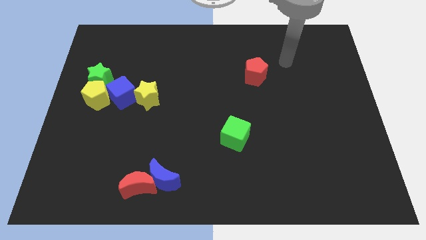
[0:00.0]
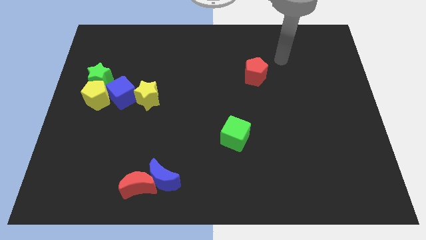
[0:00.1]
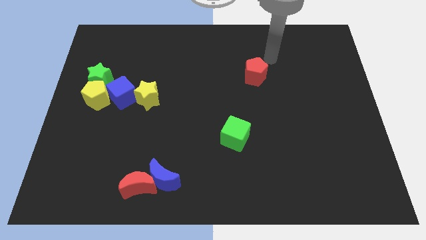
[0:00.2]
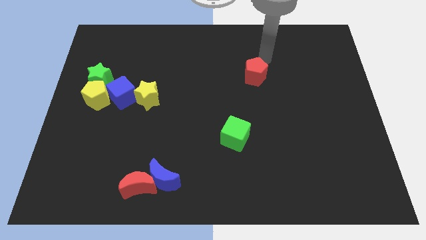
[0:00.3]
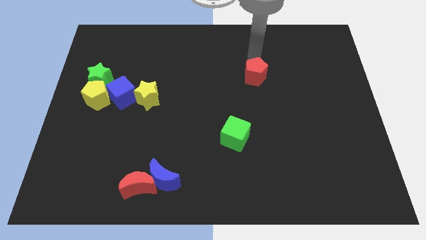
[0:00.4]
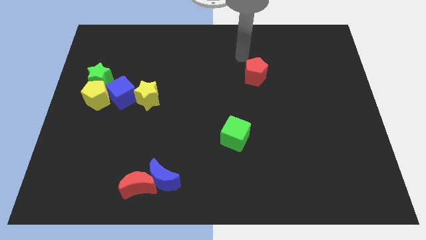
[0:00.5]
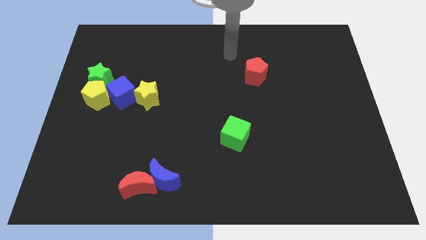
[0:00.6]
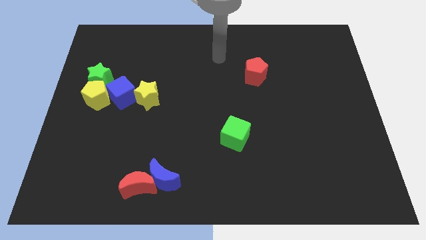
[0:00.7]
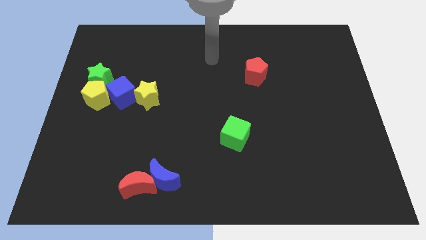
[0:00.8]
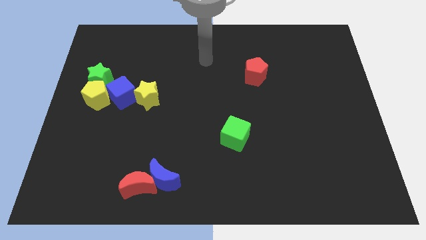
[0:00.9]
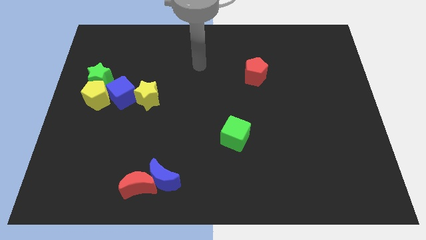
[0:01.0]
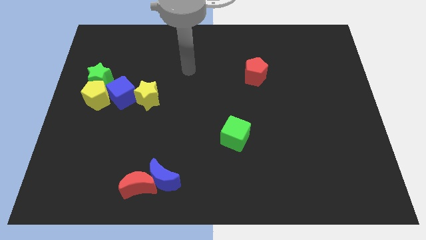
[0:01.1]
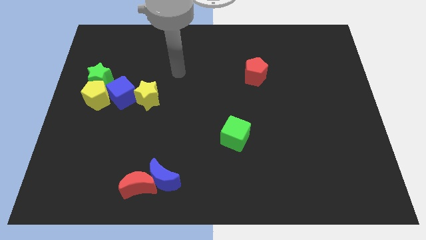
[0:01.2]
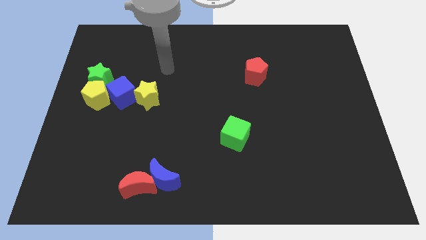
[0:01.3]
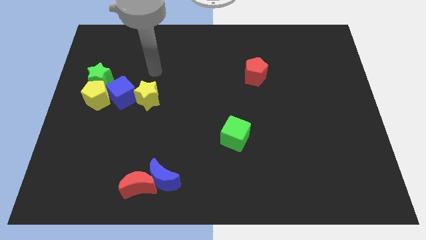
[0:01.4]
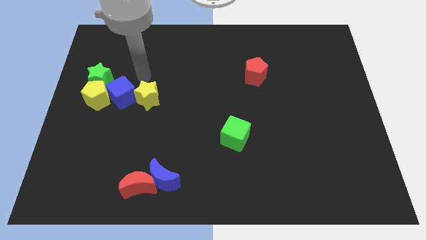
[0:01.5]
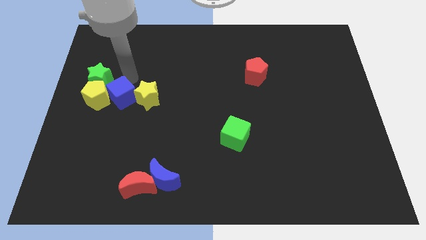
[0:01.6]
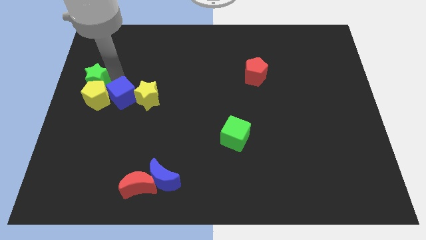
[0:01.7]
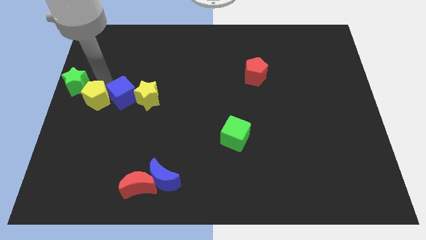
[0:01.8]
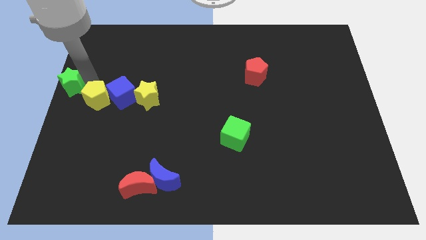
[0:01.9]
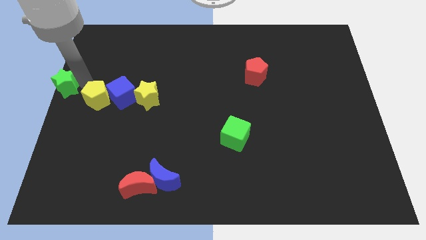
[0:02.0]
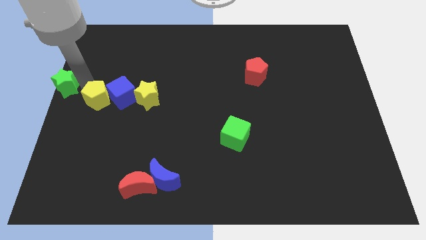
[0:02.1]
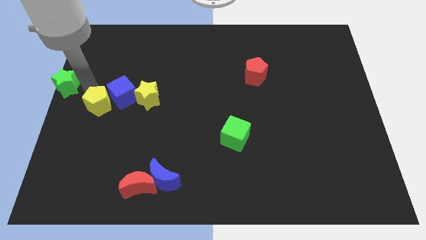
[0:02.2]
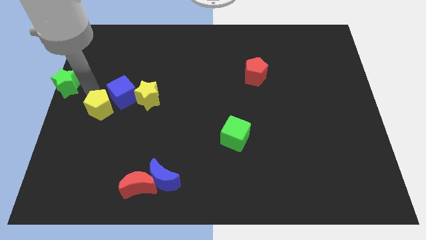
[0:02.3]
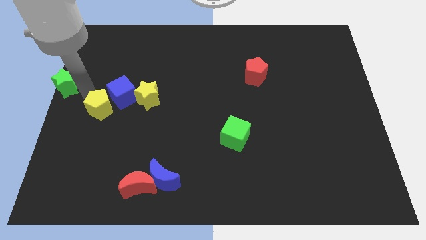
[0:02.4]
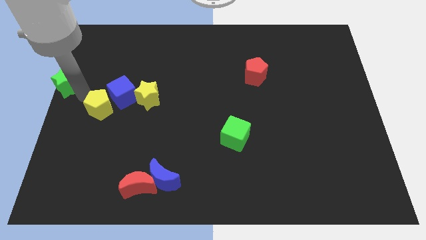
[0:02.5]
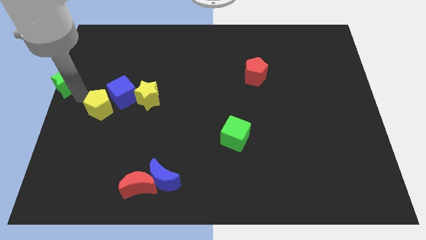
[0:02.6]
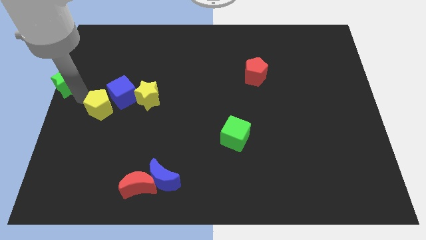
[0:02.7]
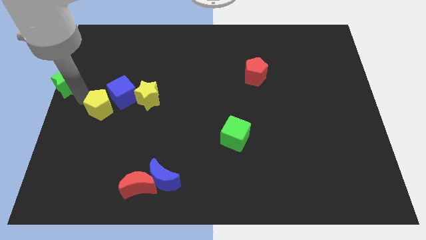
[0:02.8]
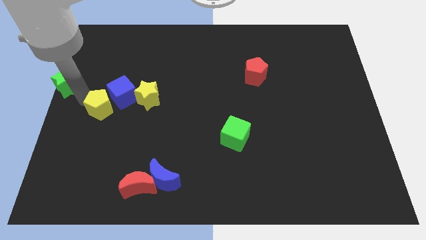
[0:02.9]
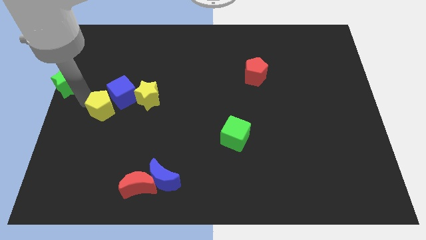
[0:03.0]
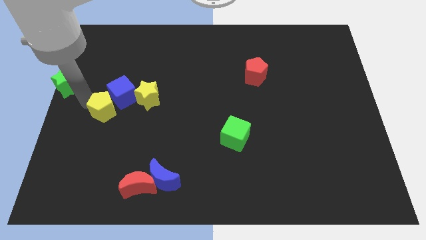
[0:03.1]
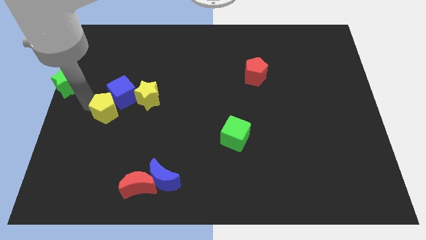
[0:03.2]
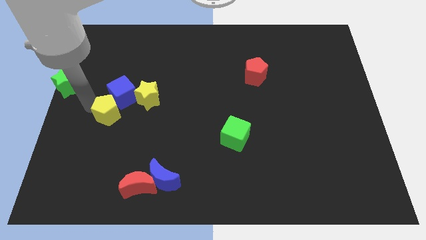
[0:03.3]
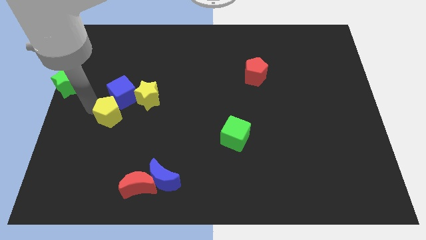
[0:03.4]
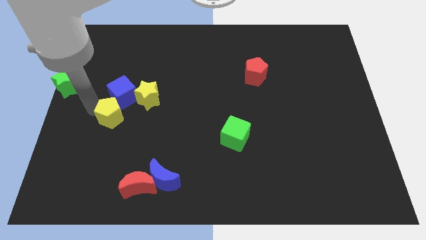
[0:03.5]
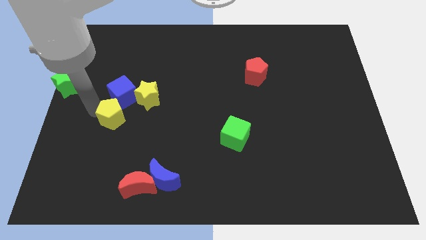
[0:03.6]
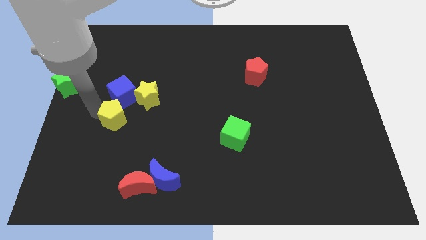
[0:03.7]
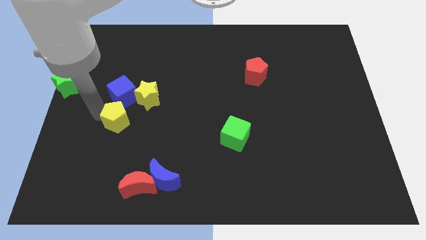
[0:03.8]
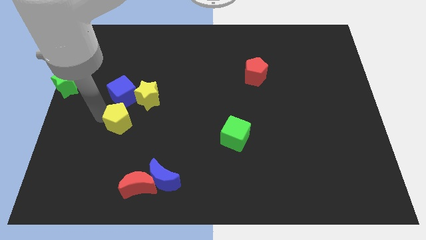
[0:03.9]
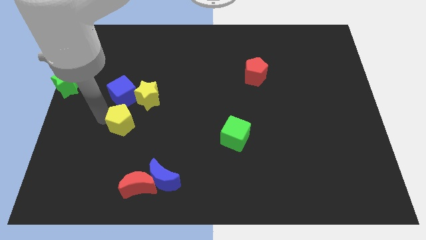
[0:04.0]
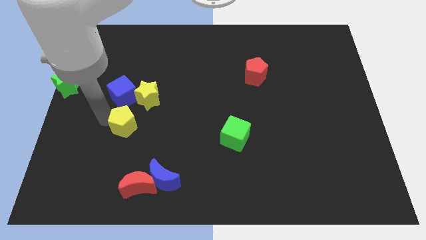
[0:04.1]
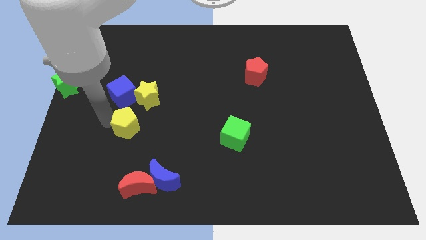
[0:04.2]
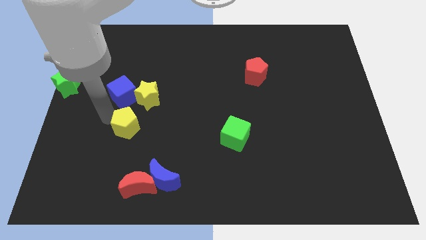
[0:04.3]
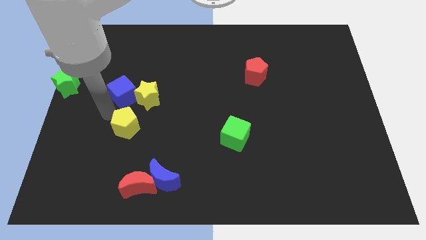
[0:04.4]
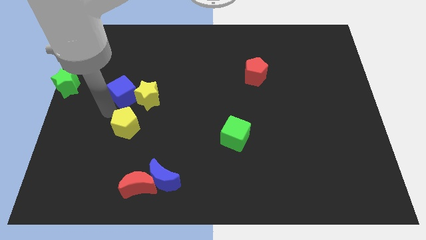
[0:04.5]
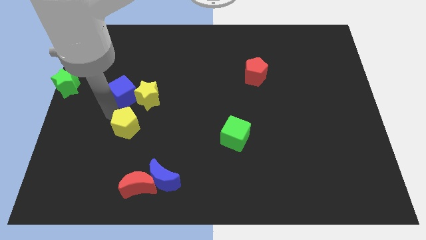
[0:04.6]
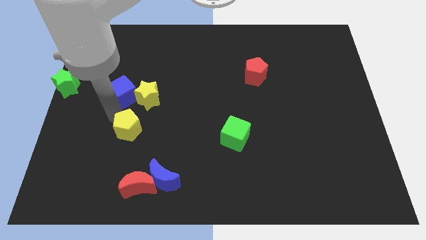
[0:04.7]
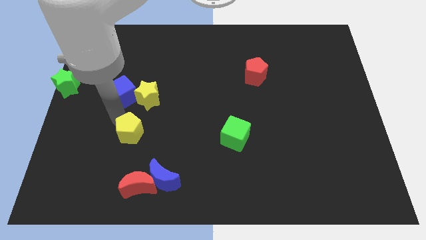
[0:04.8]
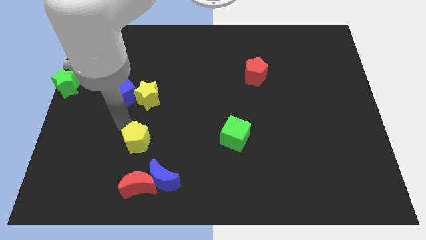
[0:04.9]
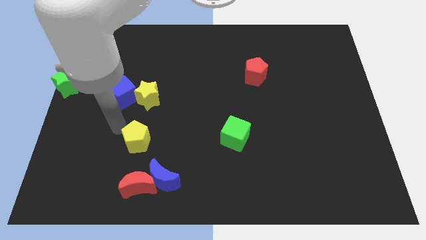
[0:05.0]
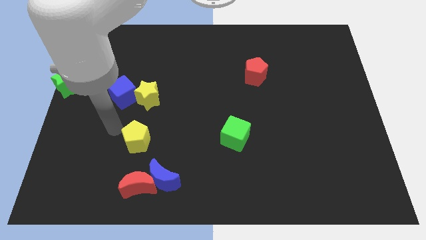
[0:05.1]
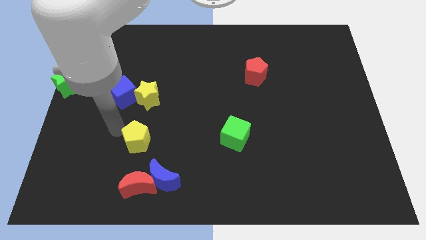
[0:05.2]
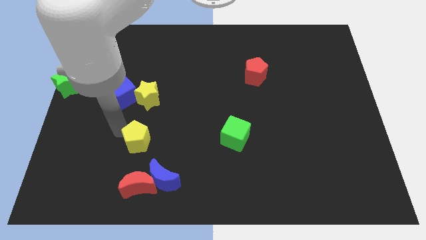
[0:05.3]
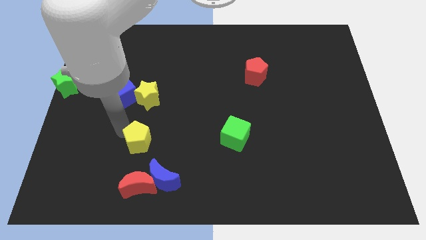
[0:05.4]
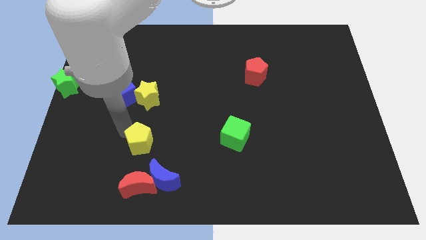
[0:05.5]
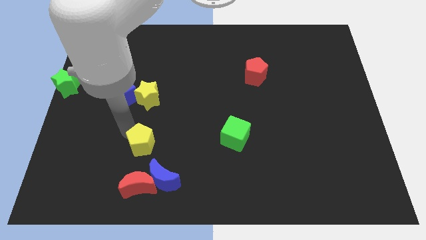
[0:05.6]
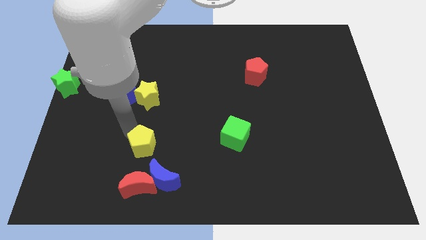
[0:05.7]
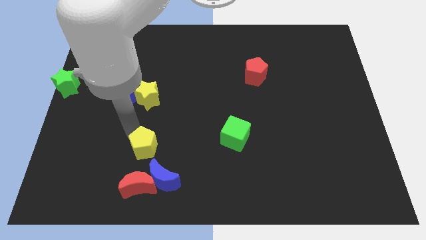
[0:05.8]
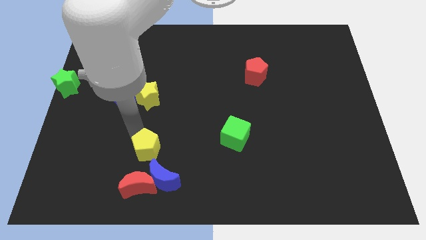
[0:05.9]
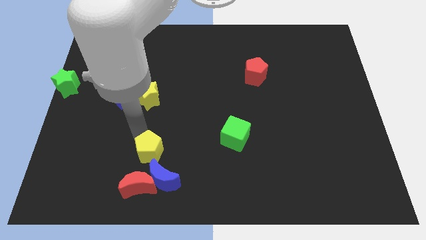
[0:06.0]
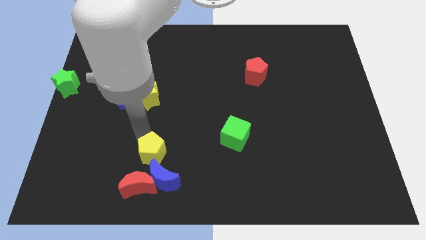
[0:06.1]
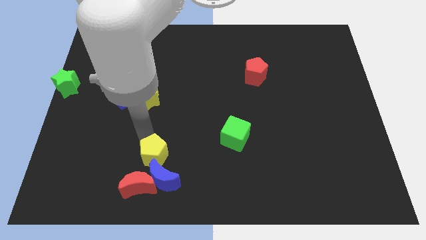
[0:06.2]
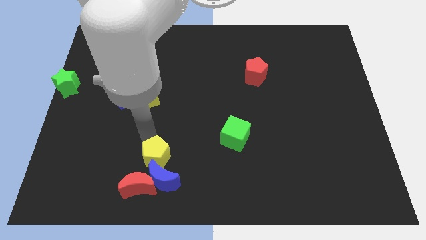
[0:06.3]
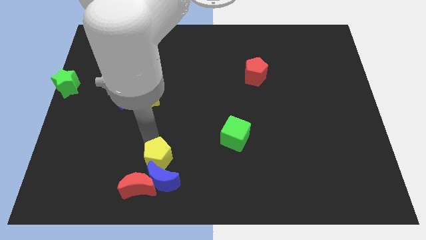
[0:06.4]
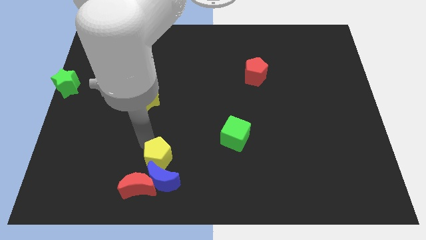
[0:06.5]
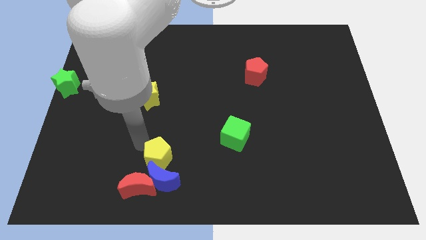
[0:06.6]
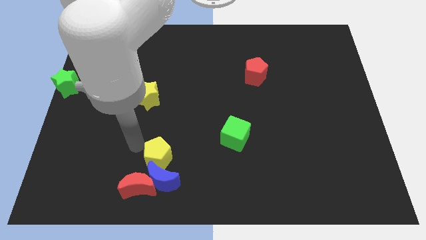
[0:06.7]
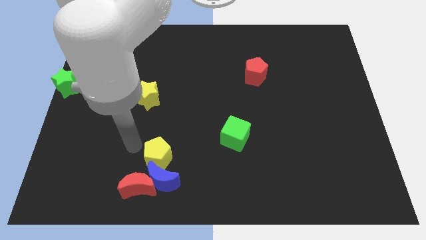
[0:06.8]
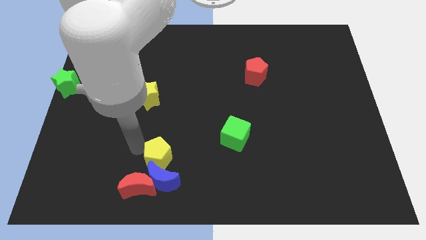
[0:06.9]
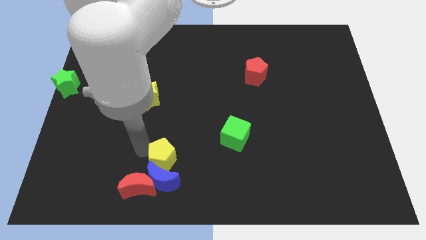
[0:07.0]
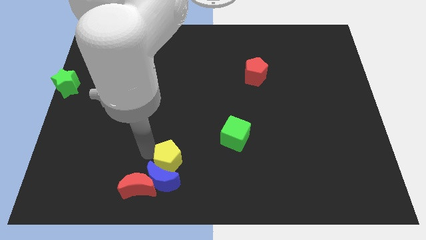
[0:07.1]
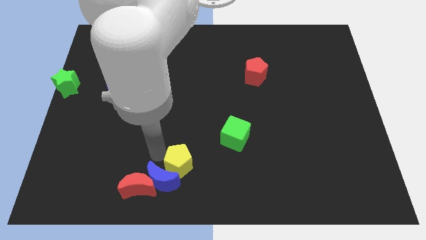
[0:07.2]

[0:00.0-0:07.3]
slide the yellow pentagon to the bottom

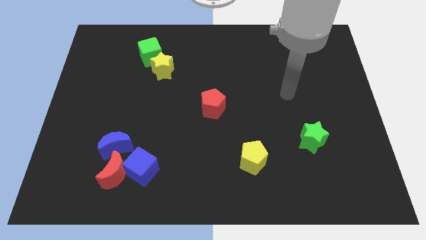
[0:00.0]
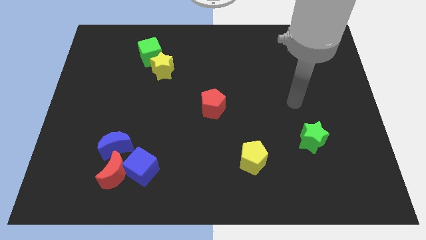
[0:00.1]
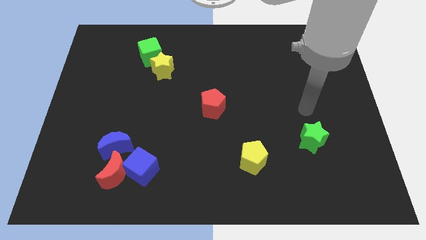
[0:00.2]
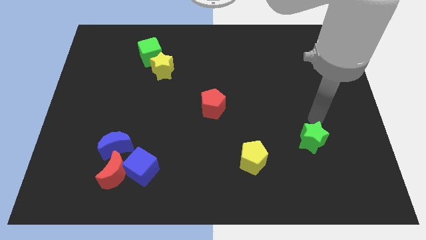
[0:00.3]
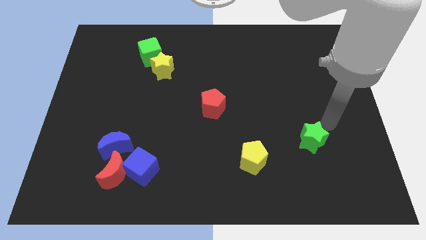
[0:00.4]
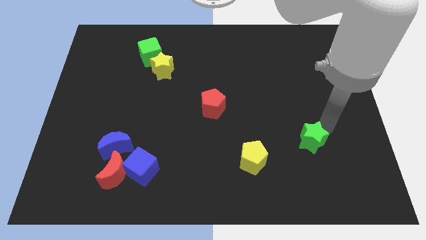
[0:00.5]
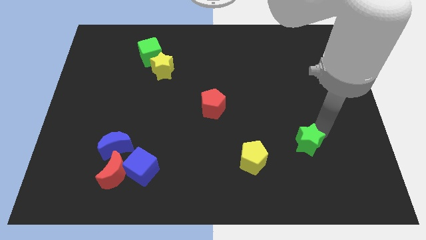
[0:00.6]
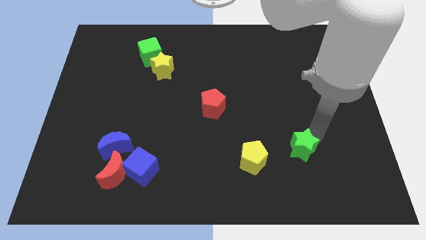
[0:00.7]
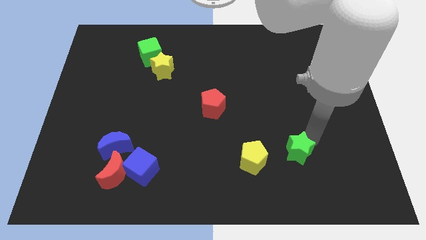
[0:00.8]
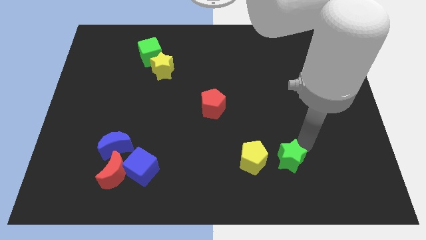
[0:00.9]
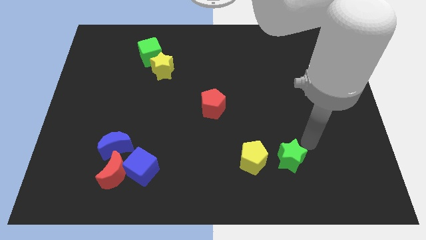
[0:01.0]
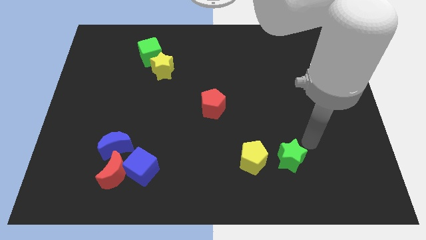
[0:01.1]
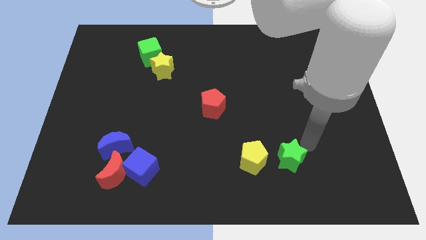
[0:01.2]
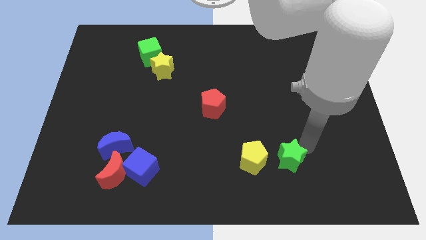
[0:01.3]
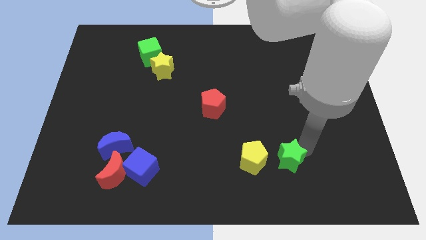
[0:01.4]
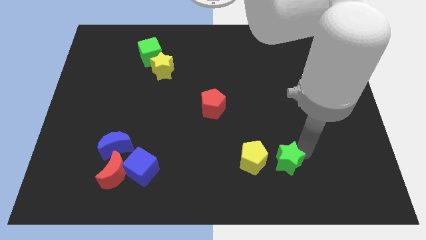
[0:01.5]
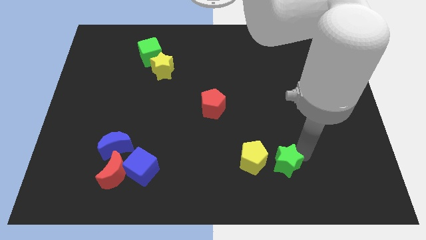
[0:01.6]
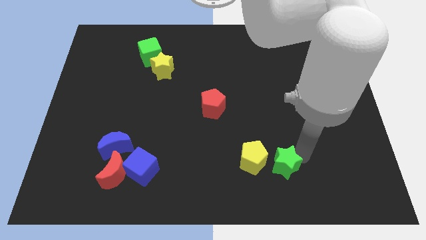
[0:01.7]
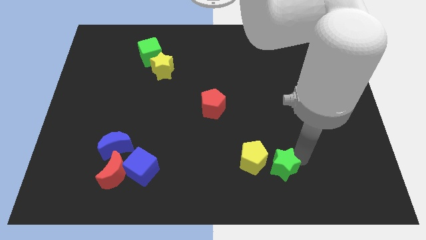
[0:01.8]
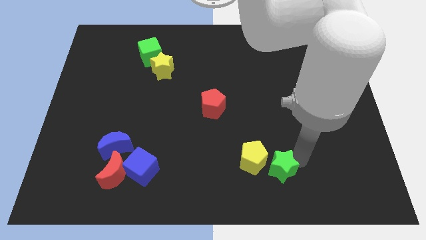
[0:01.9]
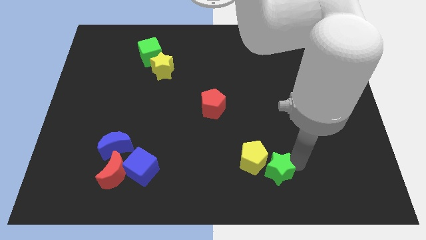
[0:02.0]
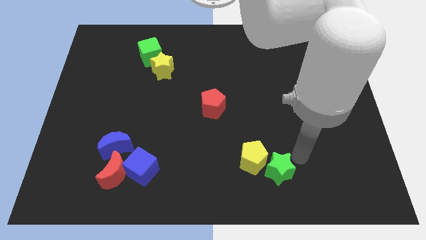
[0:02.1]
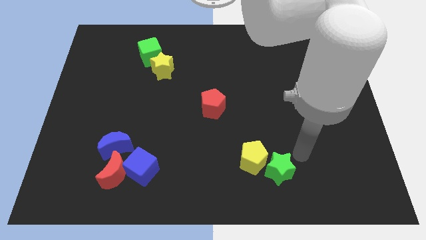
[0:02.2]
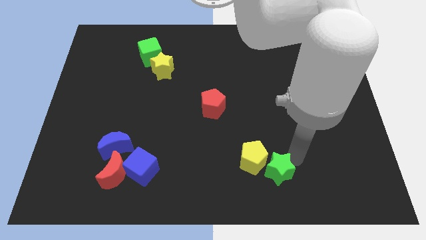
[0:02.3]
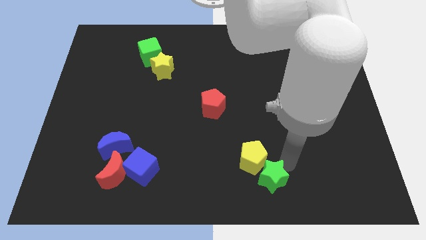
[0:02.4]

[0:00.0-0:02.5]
put the green star to the bottom side
